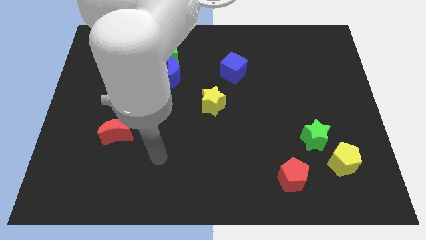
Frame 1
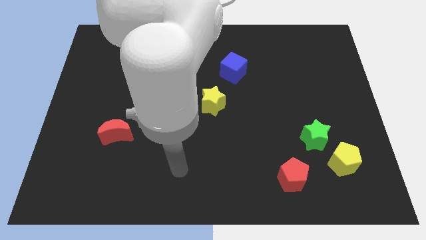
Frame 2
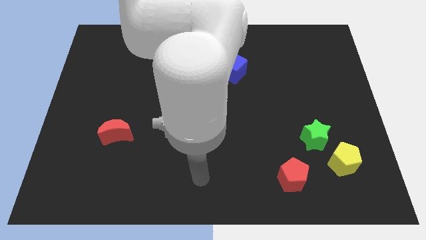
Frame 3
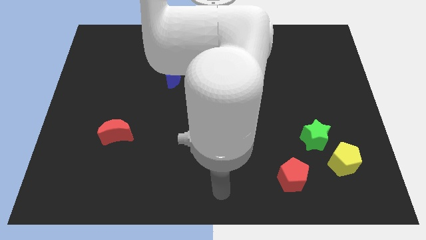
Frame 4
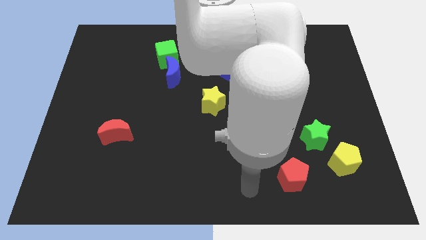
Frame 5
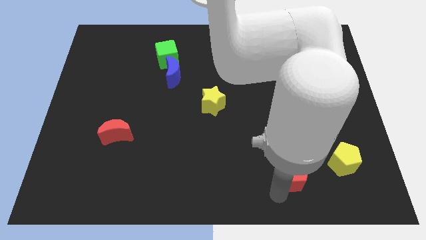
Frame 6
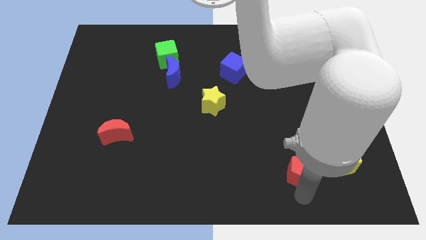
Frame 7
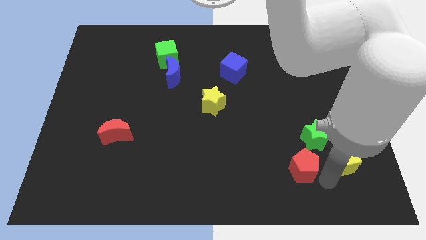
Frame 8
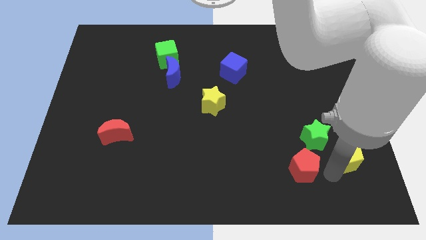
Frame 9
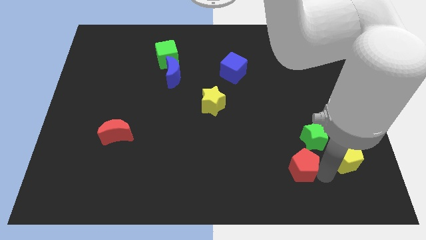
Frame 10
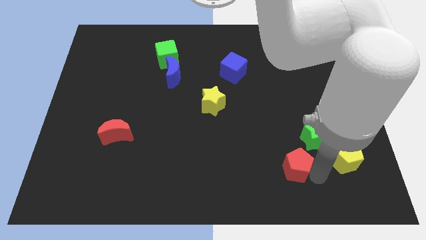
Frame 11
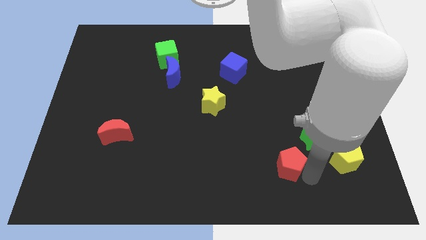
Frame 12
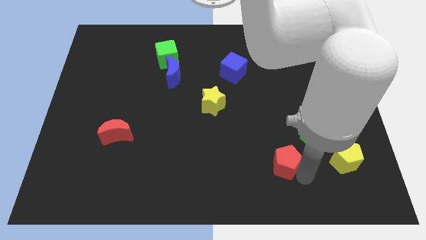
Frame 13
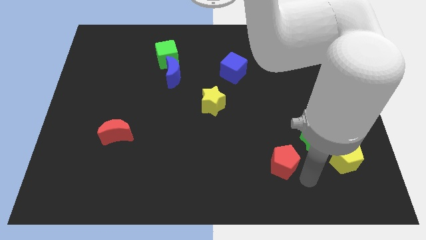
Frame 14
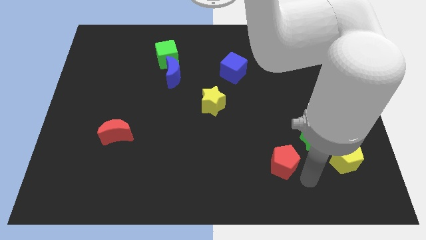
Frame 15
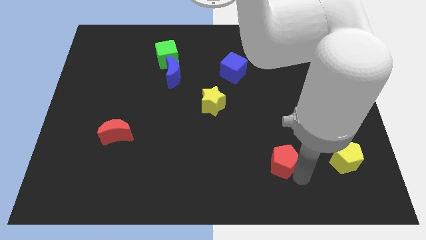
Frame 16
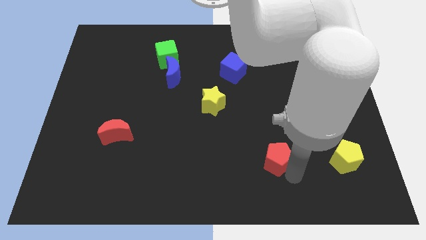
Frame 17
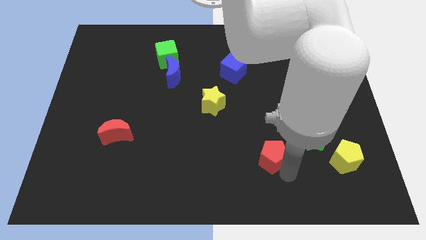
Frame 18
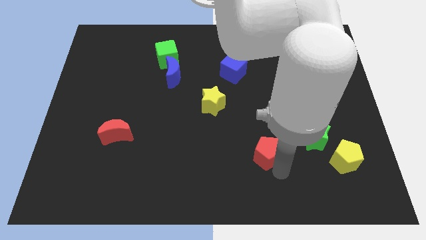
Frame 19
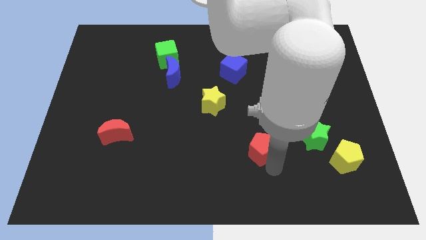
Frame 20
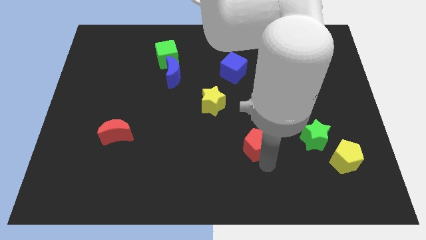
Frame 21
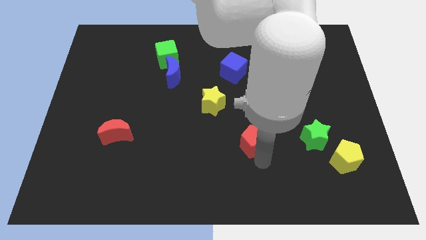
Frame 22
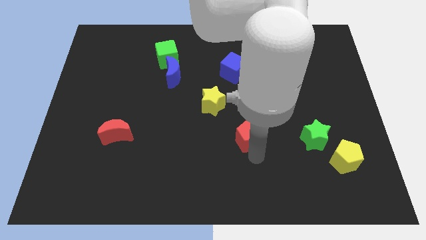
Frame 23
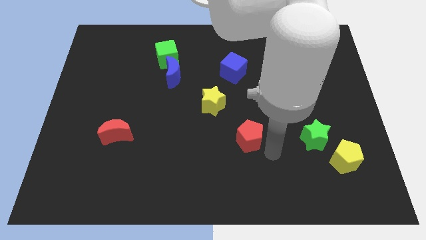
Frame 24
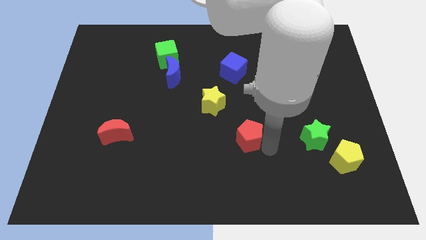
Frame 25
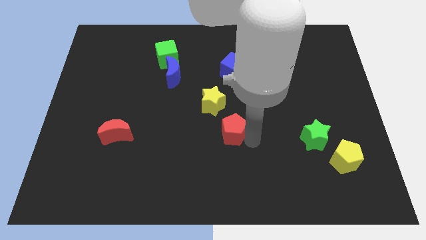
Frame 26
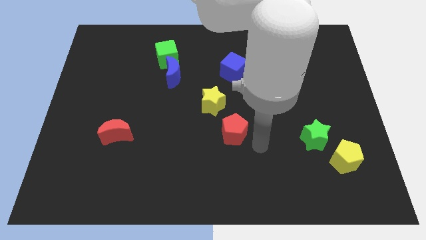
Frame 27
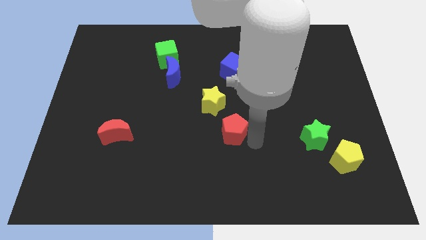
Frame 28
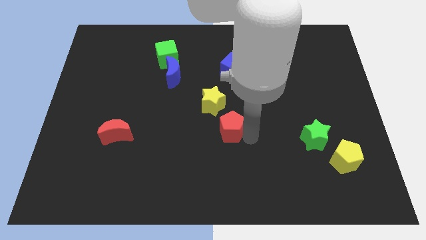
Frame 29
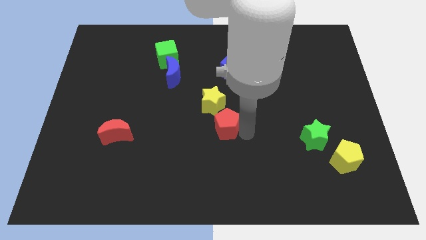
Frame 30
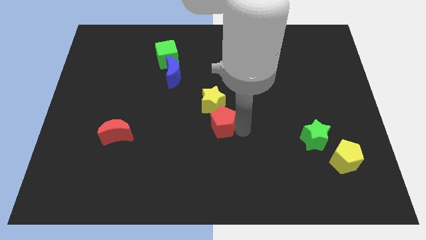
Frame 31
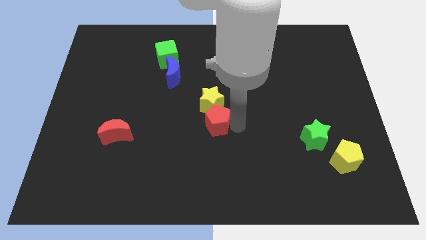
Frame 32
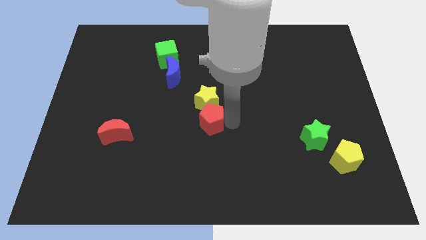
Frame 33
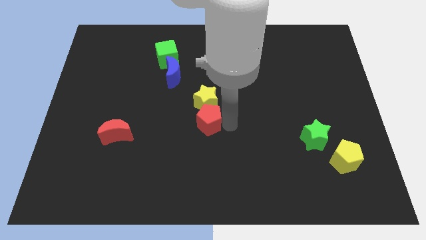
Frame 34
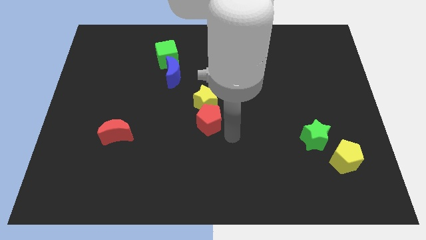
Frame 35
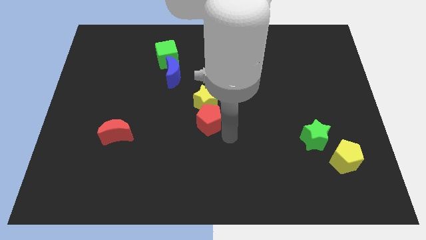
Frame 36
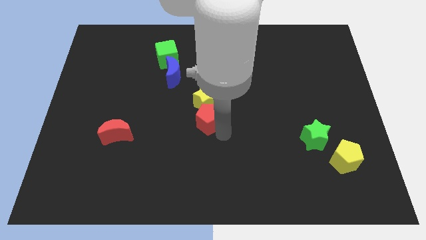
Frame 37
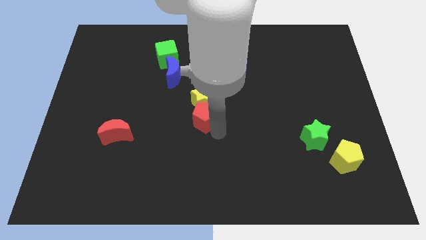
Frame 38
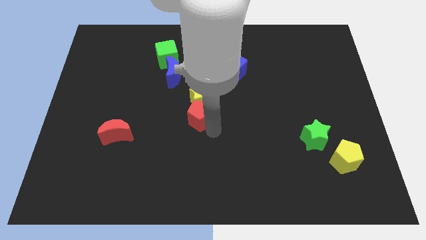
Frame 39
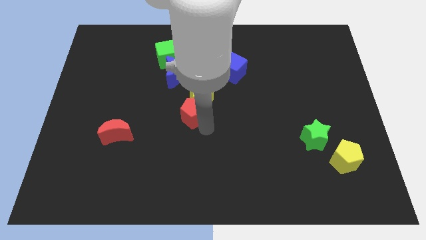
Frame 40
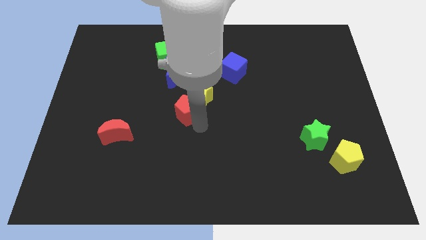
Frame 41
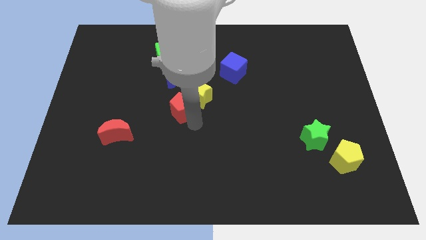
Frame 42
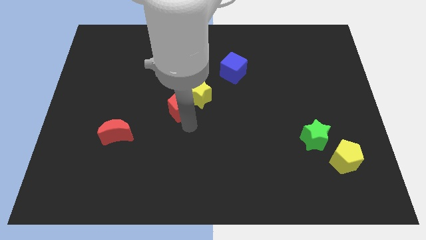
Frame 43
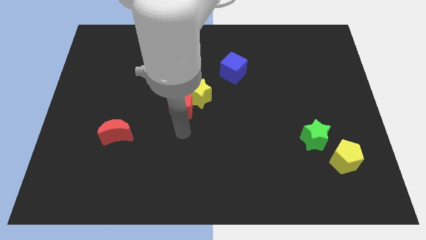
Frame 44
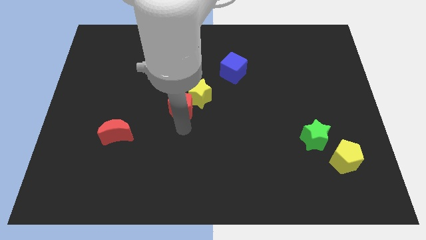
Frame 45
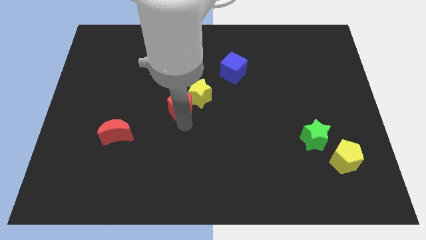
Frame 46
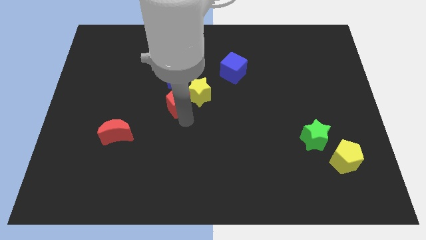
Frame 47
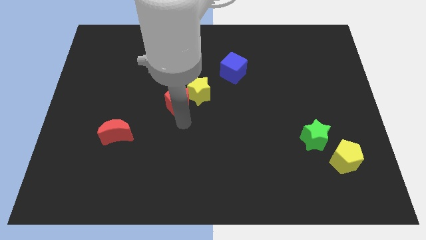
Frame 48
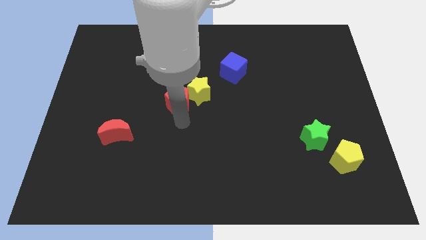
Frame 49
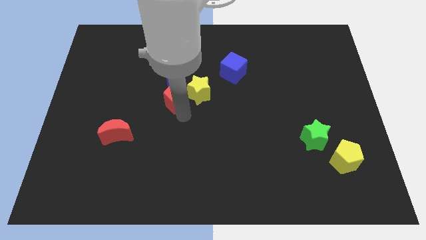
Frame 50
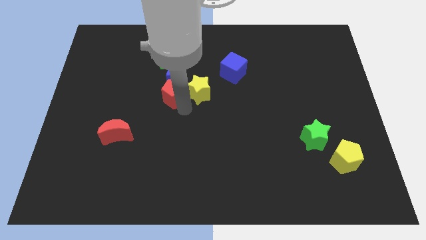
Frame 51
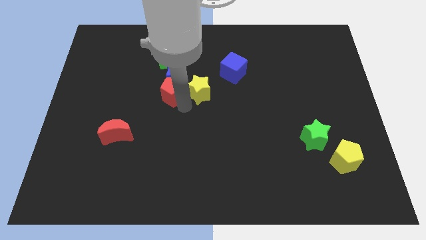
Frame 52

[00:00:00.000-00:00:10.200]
put the red pentagon to the blue moon

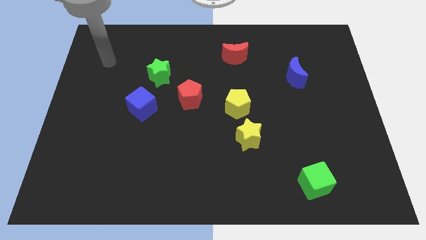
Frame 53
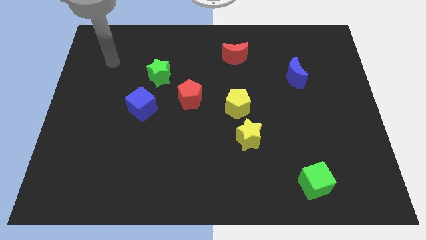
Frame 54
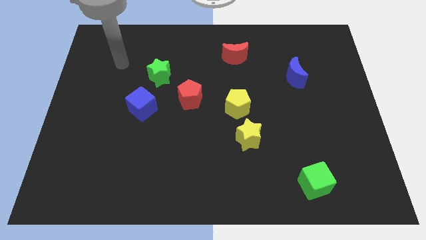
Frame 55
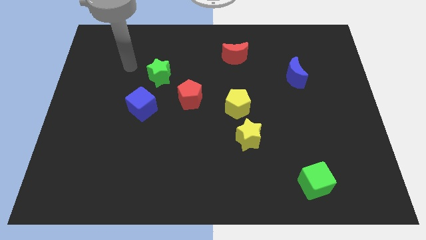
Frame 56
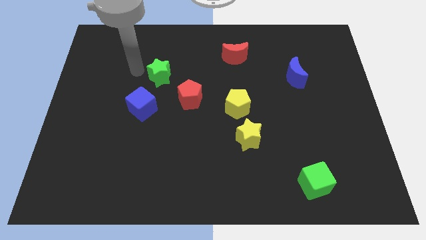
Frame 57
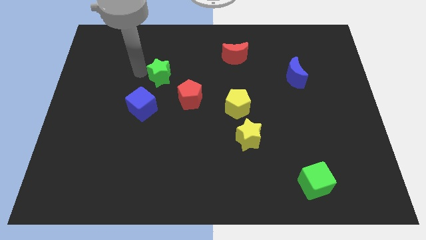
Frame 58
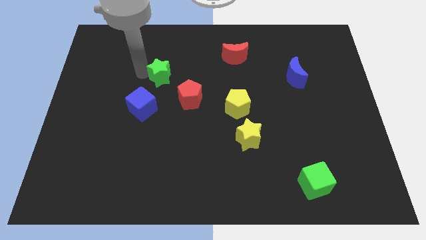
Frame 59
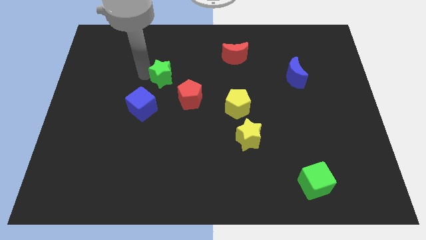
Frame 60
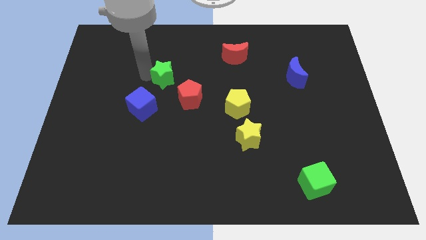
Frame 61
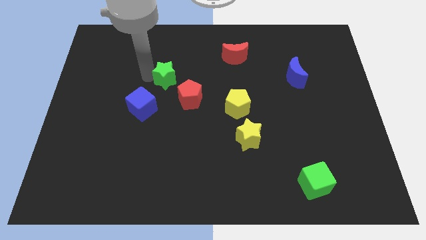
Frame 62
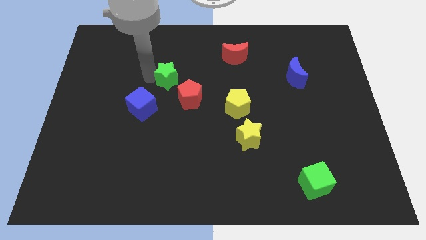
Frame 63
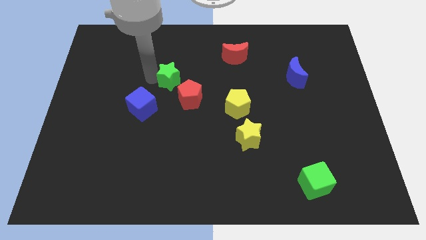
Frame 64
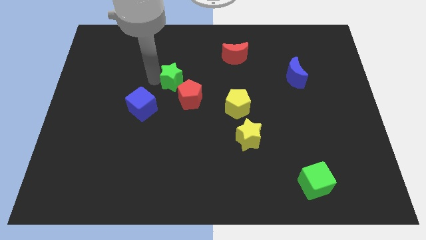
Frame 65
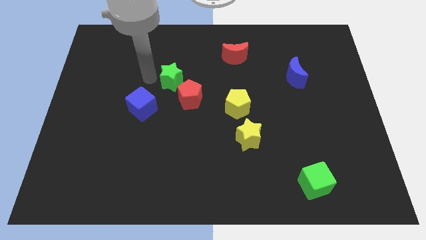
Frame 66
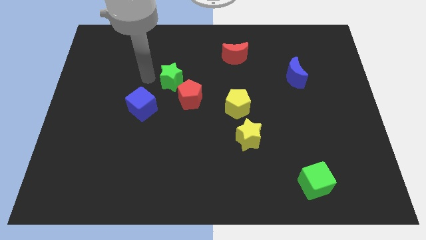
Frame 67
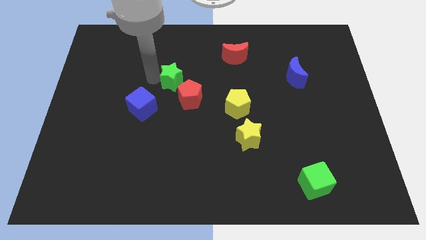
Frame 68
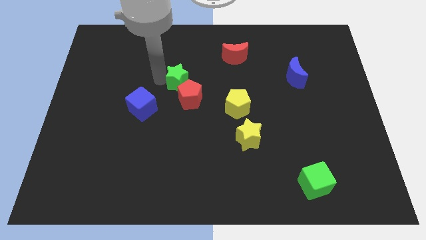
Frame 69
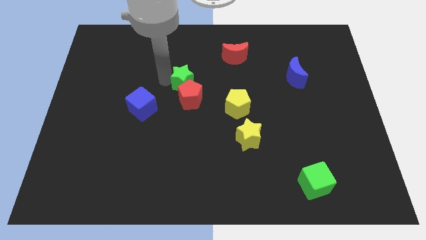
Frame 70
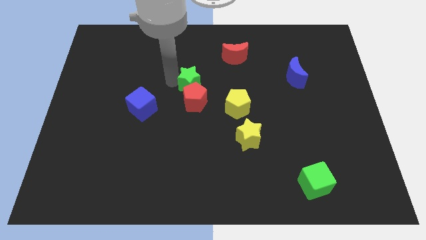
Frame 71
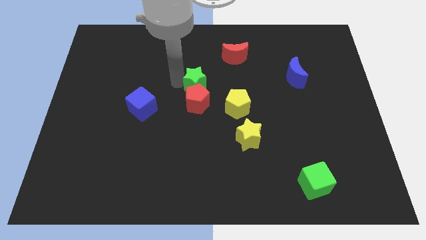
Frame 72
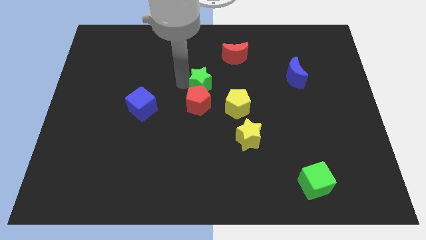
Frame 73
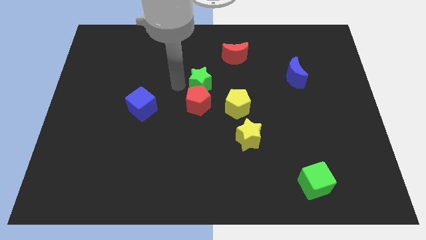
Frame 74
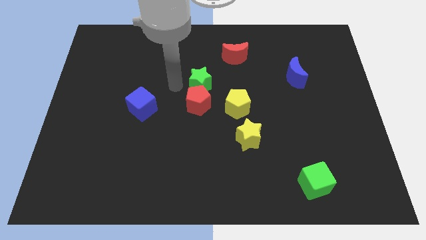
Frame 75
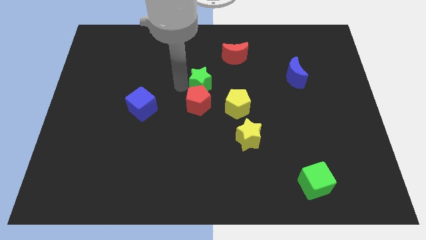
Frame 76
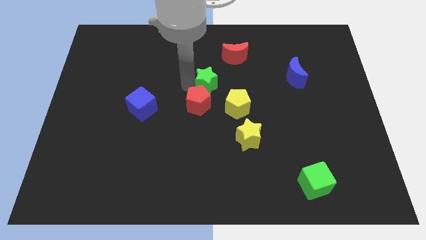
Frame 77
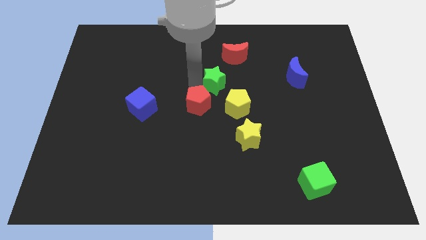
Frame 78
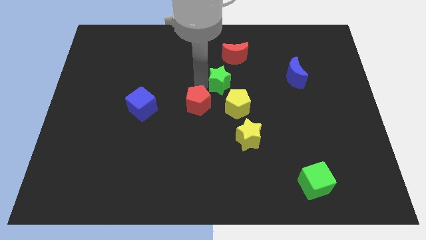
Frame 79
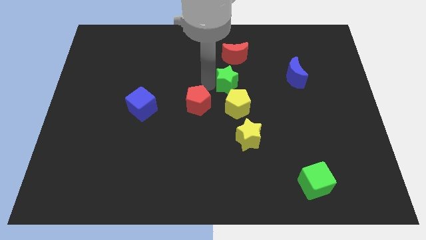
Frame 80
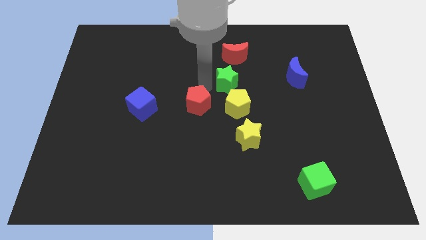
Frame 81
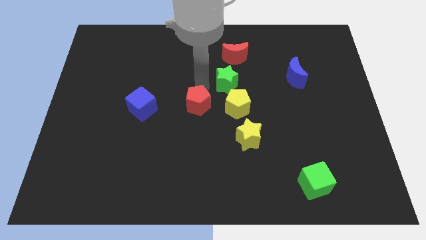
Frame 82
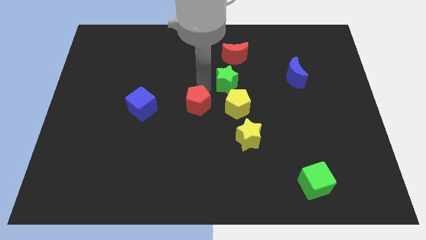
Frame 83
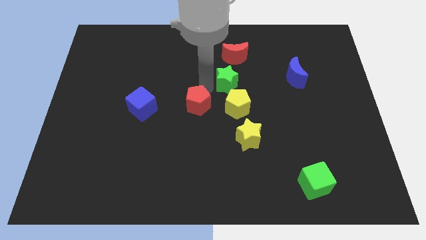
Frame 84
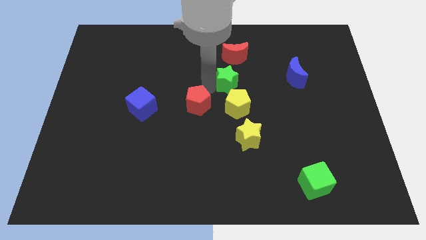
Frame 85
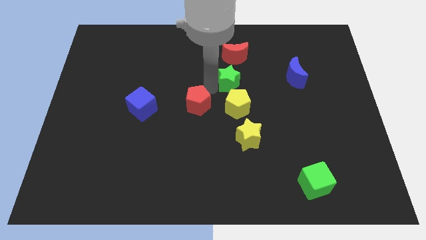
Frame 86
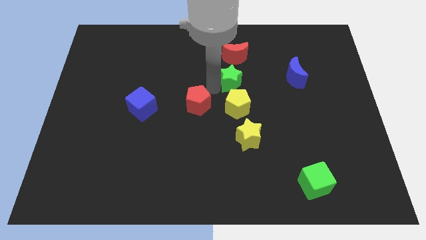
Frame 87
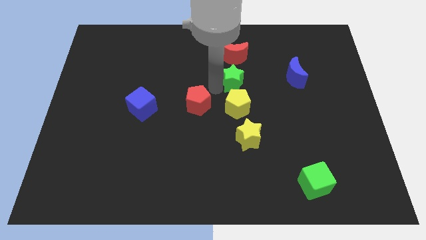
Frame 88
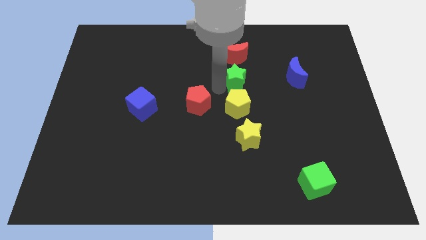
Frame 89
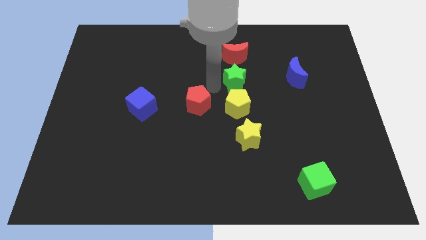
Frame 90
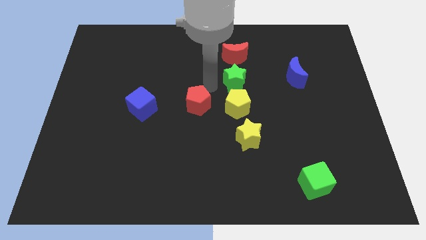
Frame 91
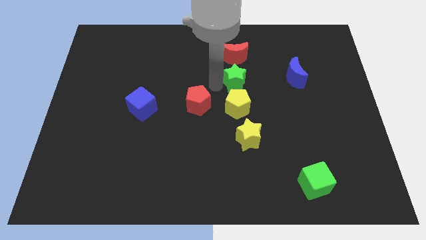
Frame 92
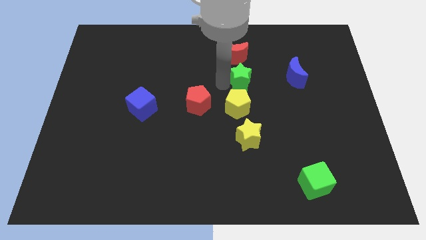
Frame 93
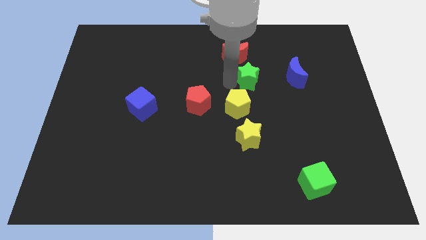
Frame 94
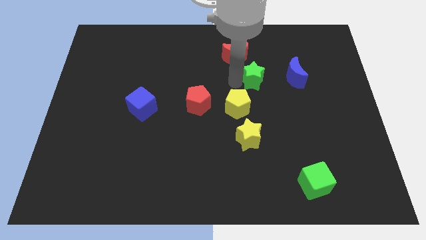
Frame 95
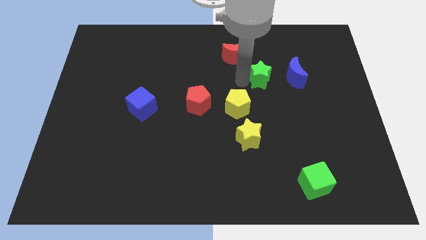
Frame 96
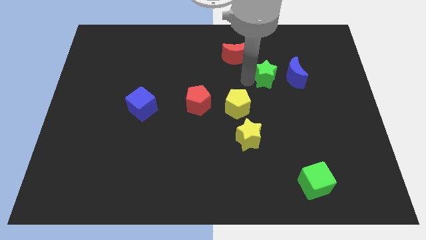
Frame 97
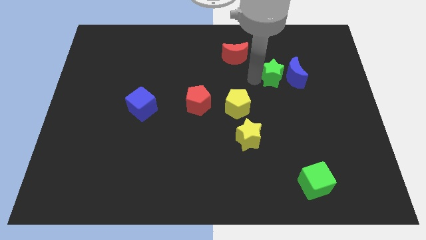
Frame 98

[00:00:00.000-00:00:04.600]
slide the green star towards the blue moon
